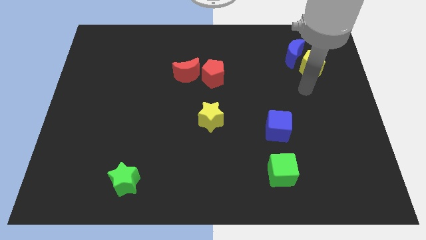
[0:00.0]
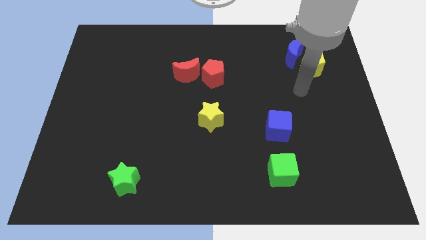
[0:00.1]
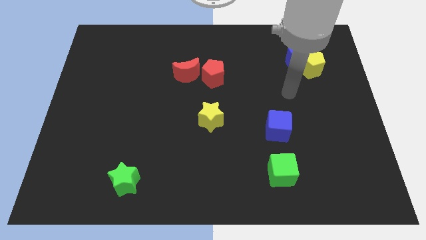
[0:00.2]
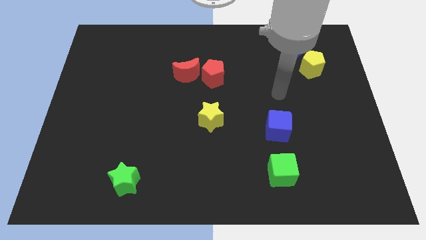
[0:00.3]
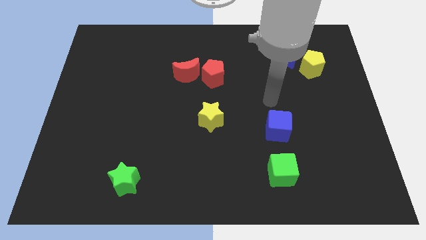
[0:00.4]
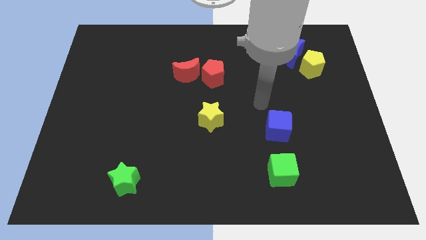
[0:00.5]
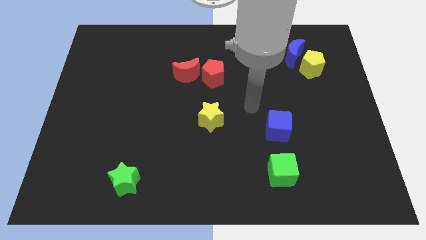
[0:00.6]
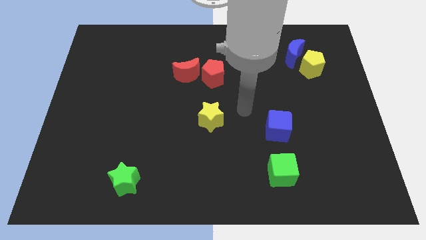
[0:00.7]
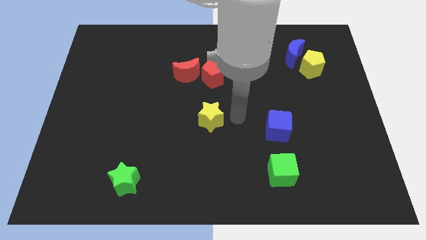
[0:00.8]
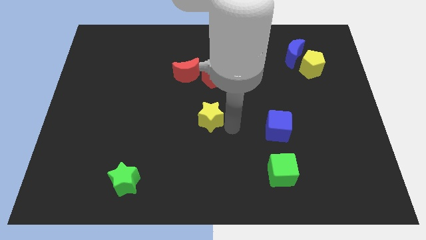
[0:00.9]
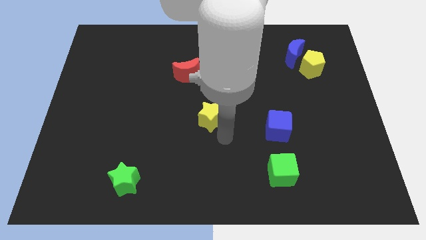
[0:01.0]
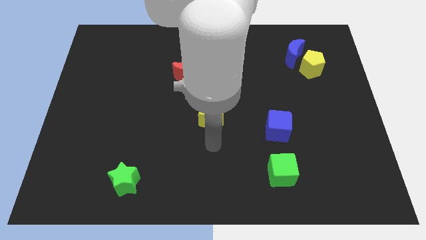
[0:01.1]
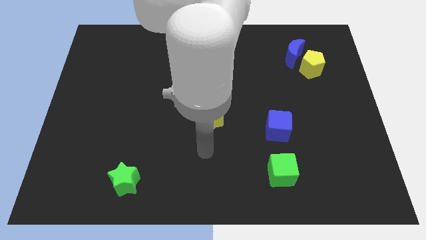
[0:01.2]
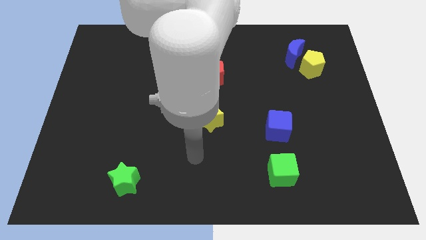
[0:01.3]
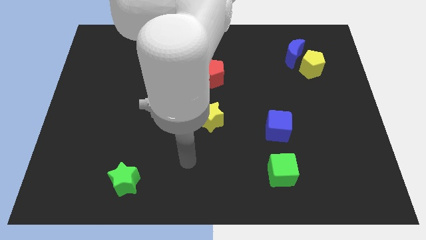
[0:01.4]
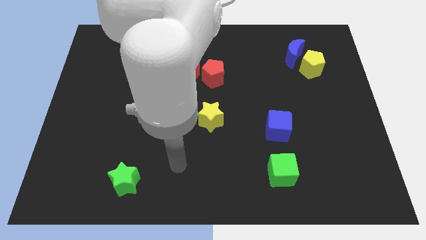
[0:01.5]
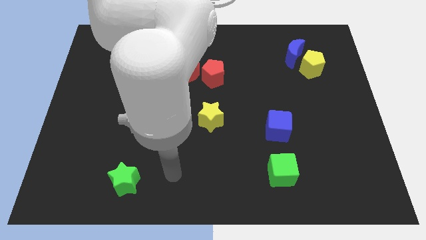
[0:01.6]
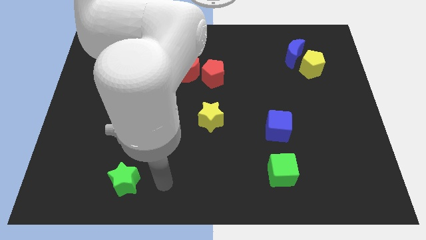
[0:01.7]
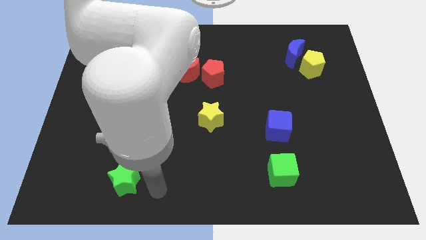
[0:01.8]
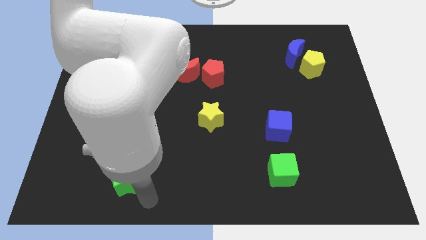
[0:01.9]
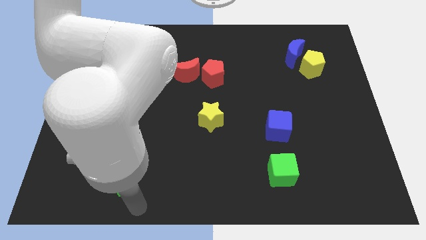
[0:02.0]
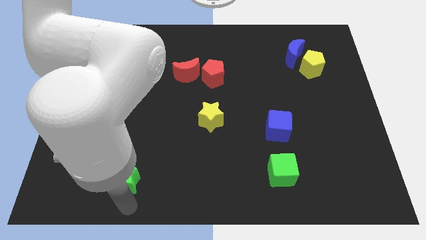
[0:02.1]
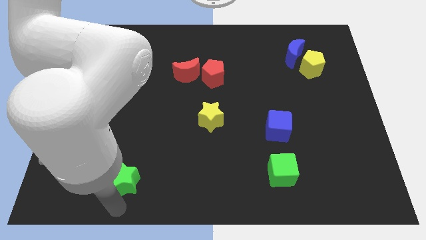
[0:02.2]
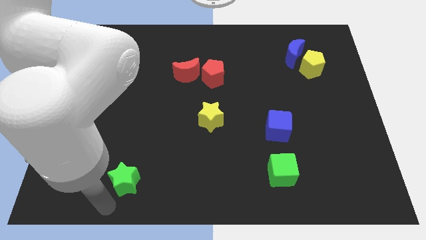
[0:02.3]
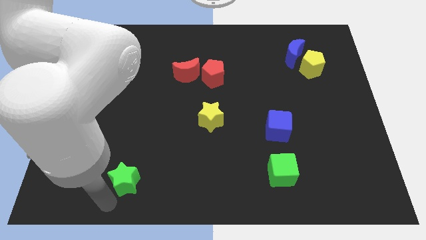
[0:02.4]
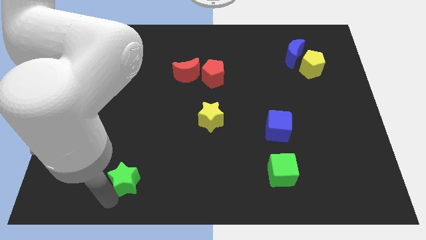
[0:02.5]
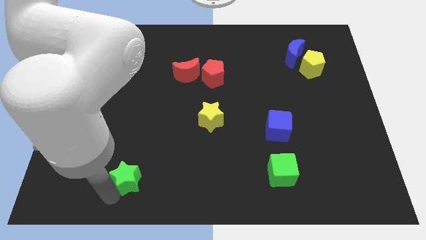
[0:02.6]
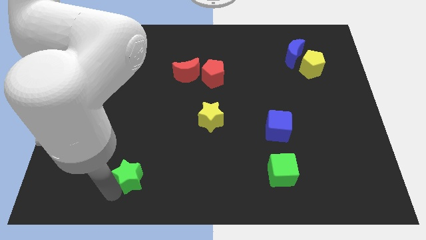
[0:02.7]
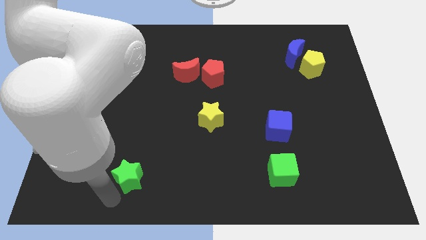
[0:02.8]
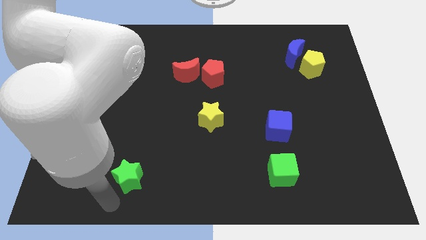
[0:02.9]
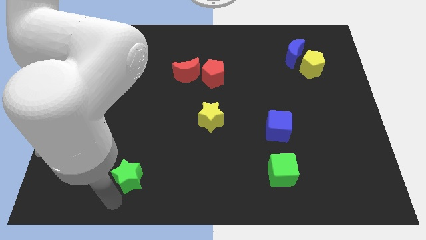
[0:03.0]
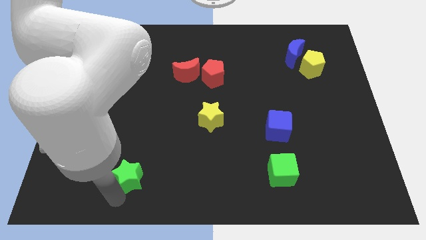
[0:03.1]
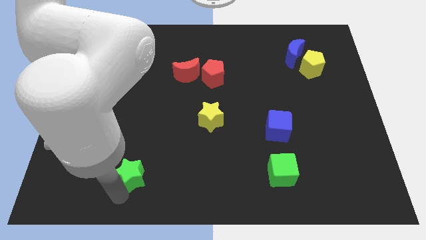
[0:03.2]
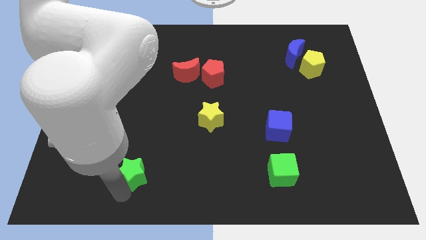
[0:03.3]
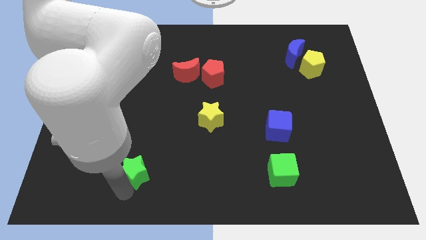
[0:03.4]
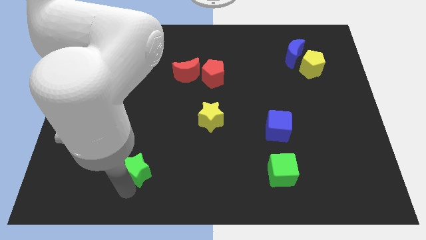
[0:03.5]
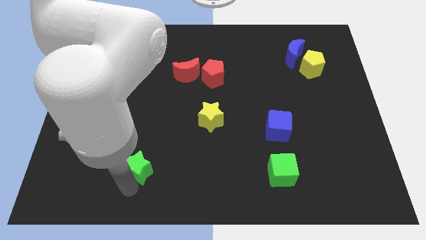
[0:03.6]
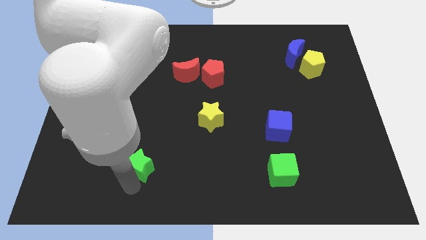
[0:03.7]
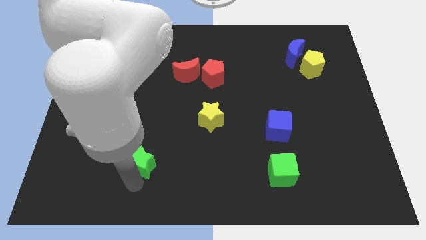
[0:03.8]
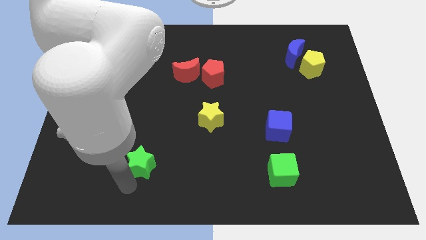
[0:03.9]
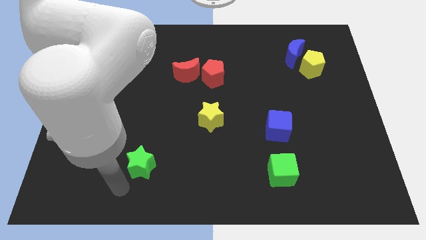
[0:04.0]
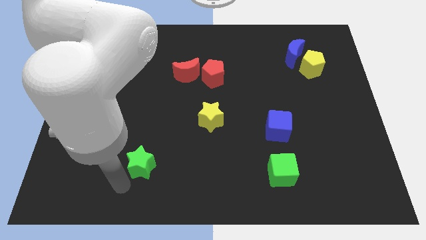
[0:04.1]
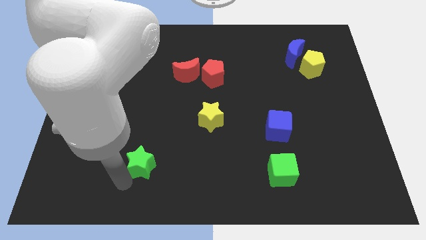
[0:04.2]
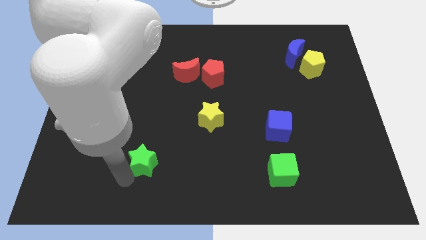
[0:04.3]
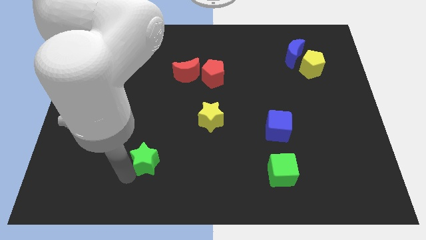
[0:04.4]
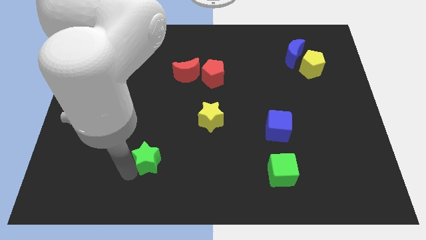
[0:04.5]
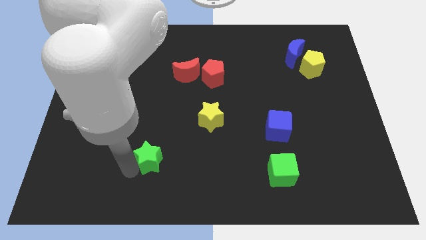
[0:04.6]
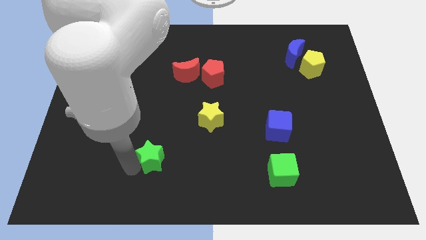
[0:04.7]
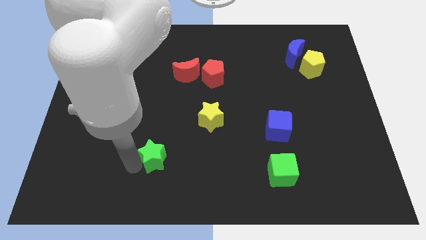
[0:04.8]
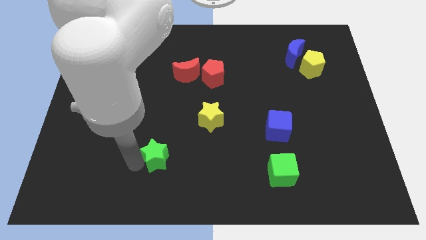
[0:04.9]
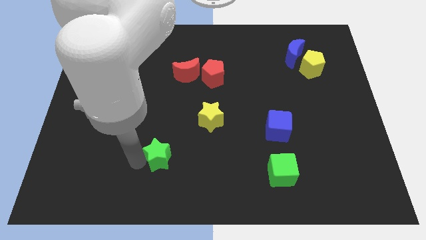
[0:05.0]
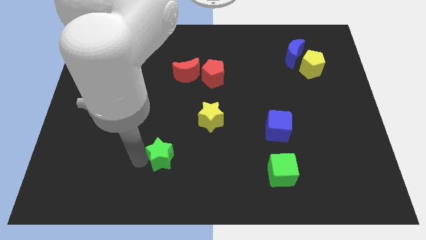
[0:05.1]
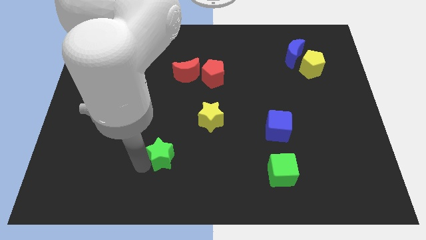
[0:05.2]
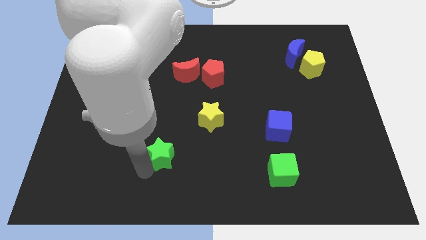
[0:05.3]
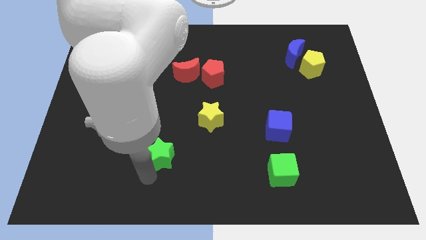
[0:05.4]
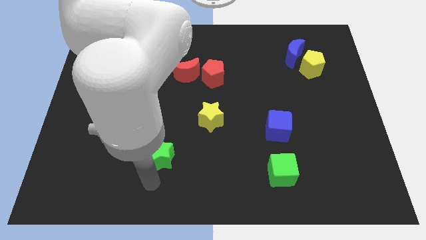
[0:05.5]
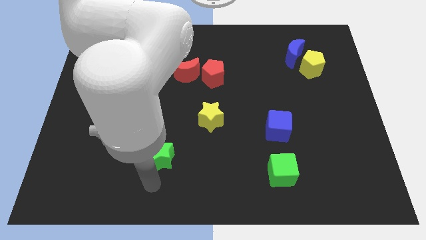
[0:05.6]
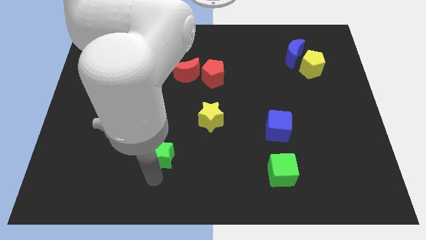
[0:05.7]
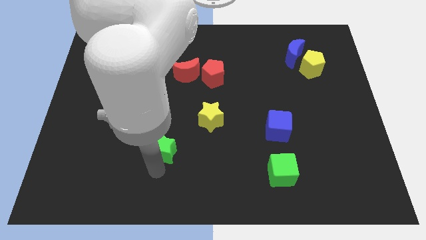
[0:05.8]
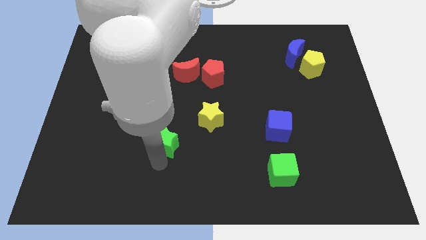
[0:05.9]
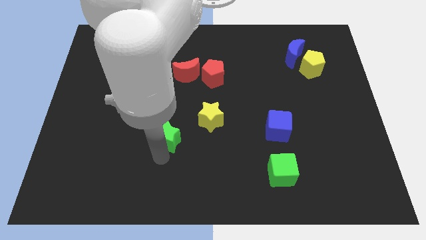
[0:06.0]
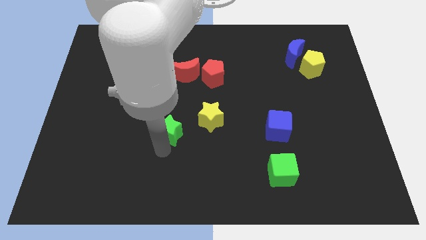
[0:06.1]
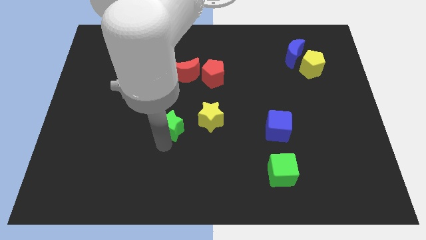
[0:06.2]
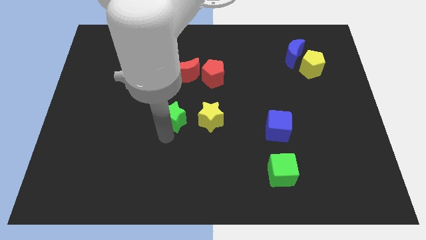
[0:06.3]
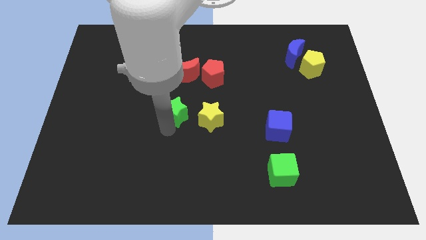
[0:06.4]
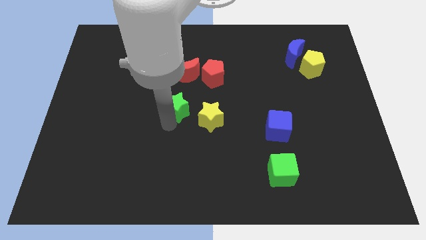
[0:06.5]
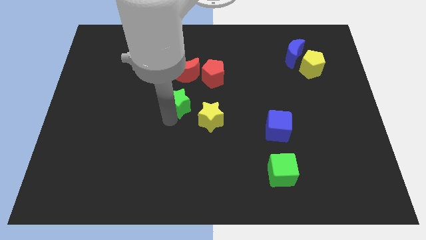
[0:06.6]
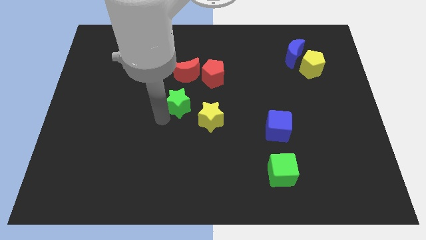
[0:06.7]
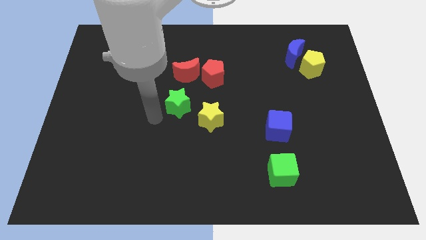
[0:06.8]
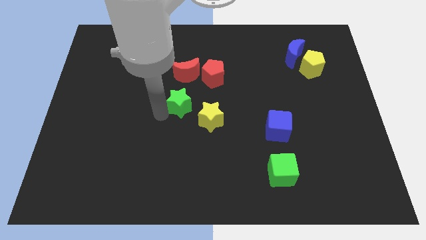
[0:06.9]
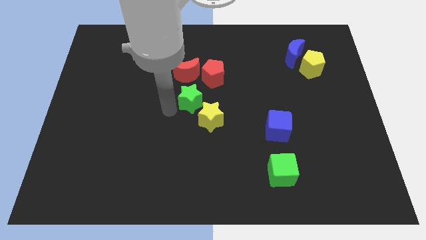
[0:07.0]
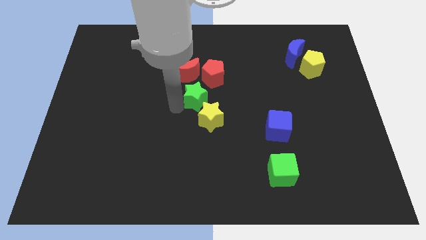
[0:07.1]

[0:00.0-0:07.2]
push the green star to the bottom right side of the red moon
